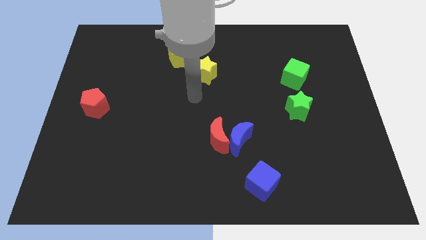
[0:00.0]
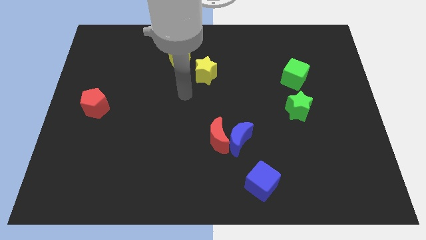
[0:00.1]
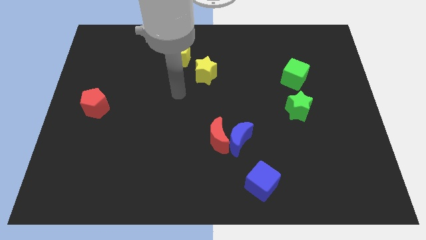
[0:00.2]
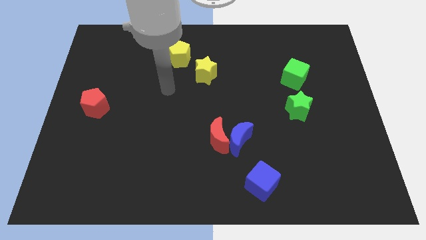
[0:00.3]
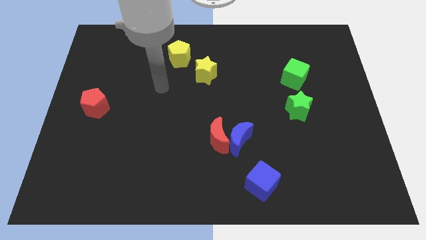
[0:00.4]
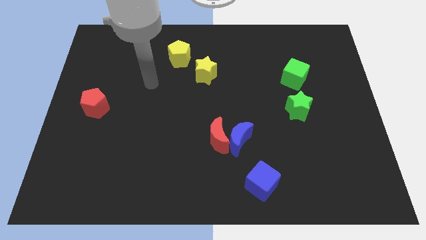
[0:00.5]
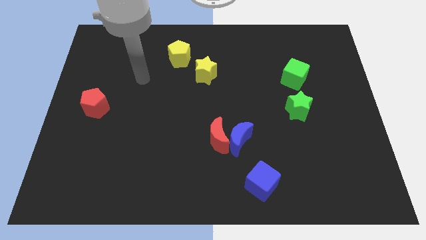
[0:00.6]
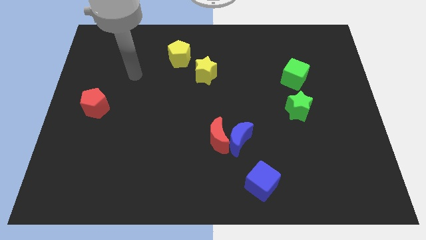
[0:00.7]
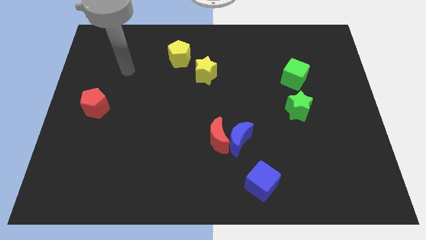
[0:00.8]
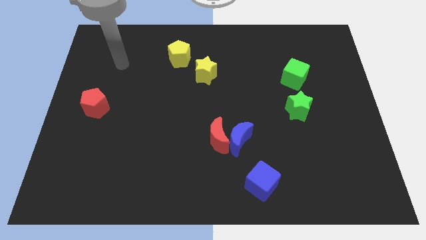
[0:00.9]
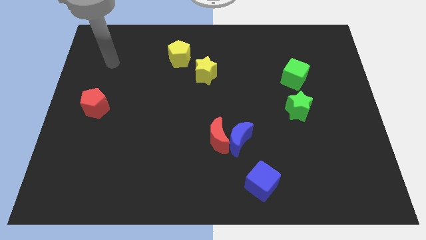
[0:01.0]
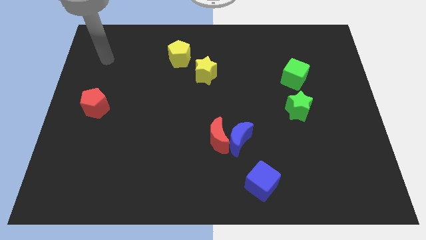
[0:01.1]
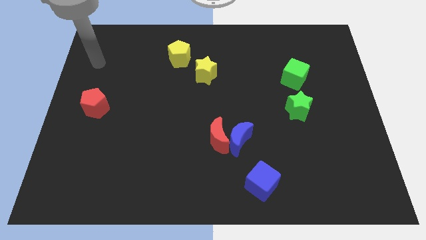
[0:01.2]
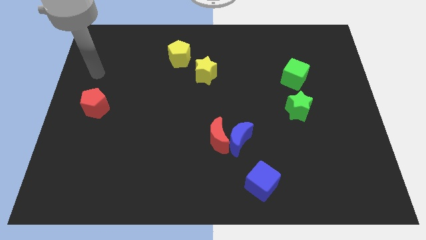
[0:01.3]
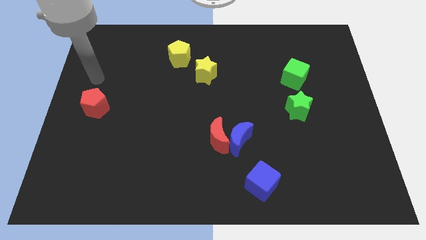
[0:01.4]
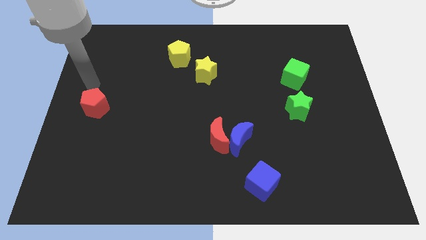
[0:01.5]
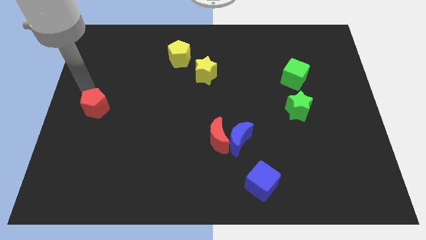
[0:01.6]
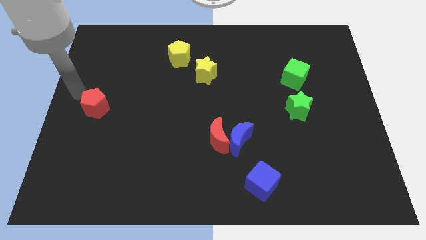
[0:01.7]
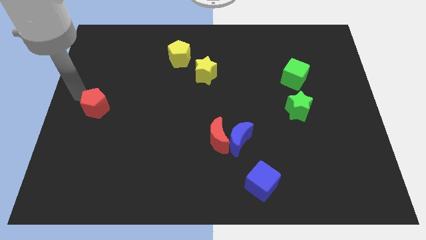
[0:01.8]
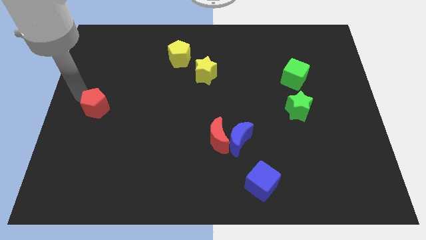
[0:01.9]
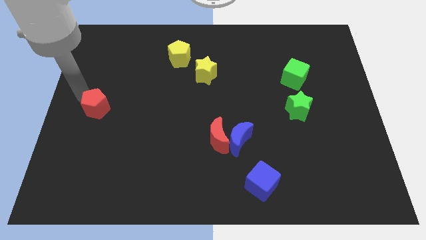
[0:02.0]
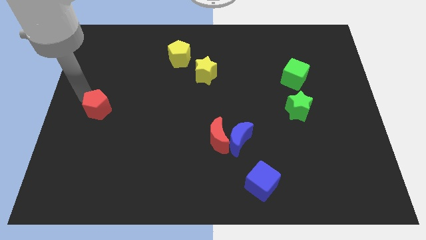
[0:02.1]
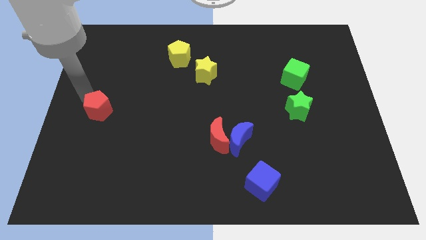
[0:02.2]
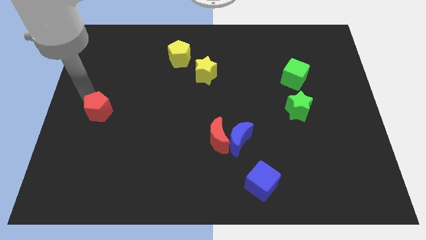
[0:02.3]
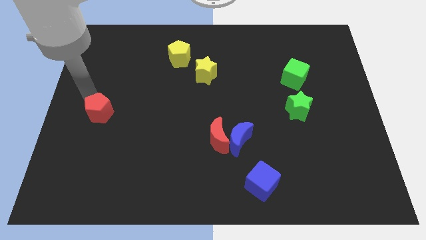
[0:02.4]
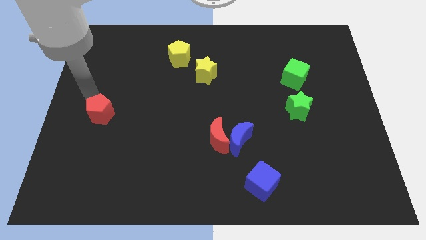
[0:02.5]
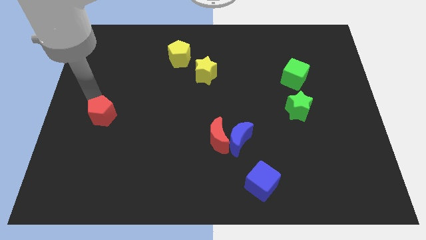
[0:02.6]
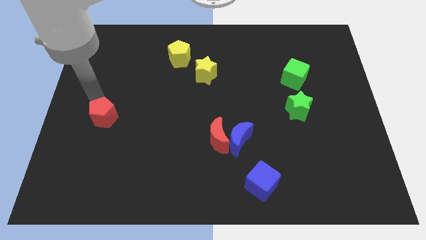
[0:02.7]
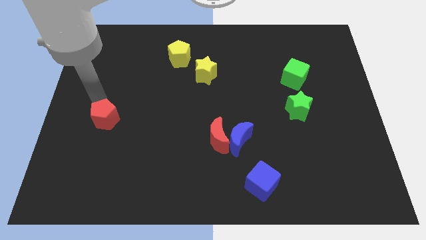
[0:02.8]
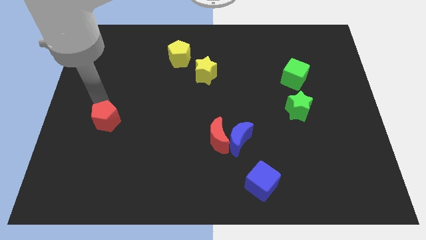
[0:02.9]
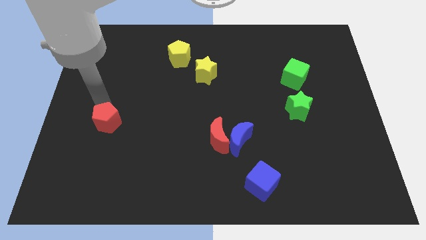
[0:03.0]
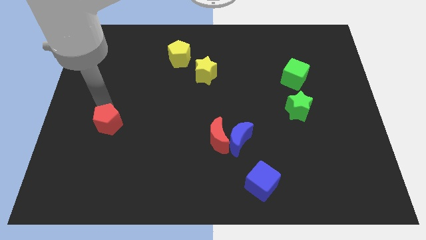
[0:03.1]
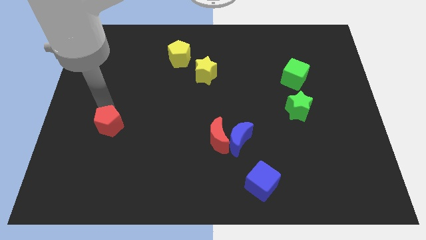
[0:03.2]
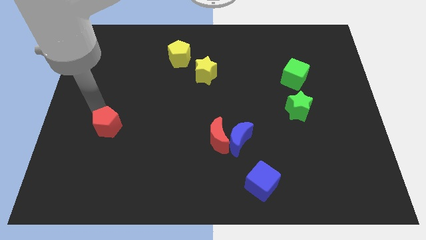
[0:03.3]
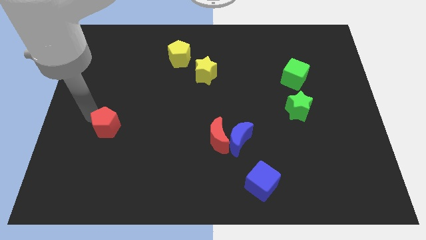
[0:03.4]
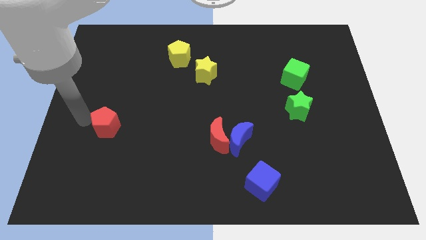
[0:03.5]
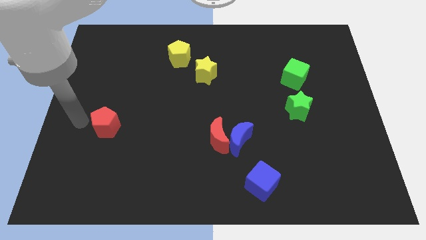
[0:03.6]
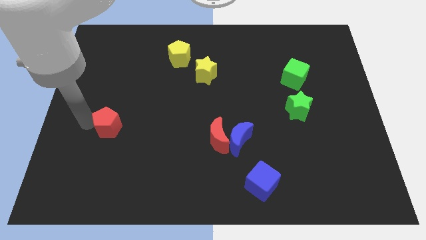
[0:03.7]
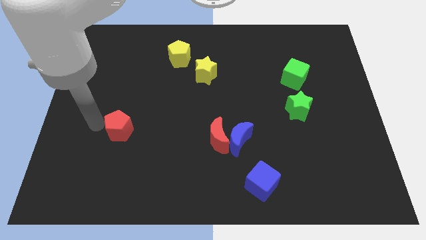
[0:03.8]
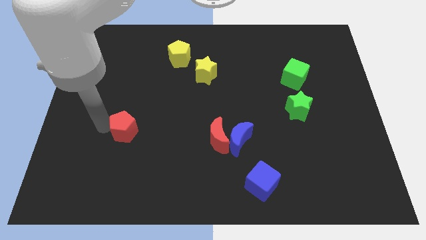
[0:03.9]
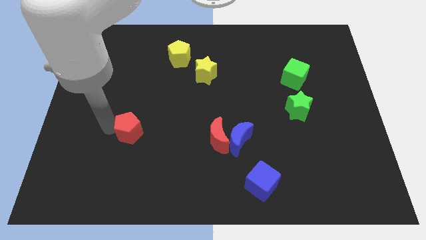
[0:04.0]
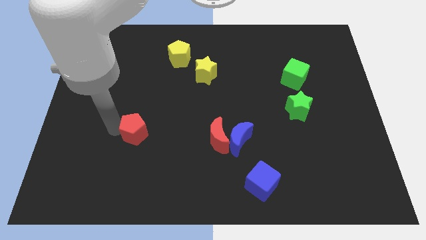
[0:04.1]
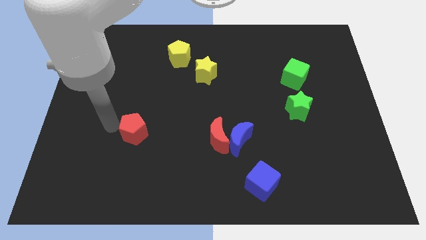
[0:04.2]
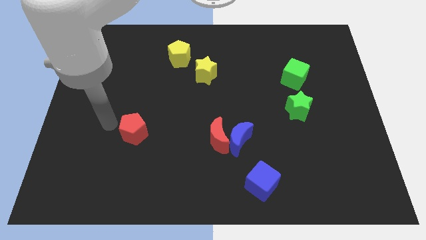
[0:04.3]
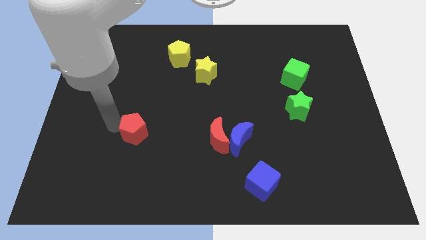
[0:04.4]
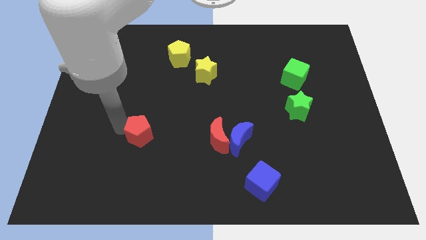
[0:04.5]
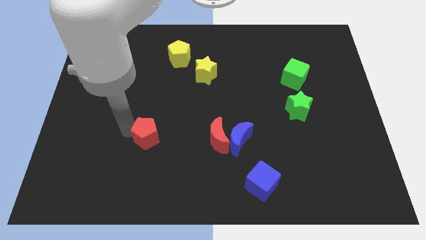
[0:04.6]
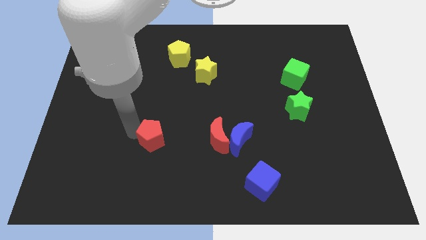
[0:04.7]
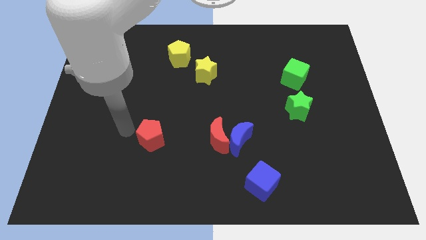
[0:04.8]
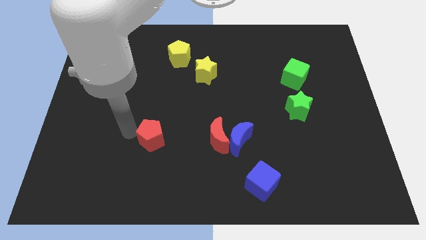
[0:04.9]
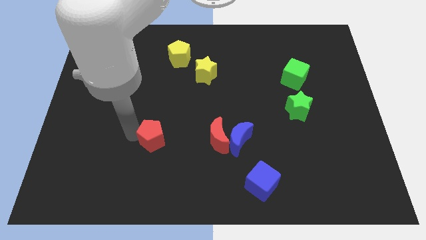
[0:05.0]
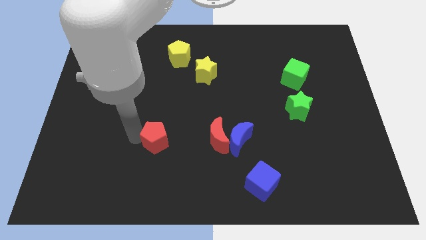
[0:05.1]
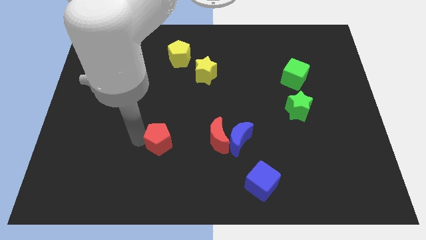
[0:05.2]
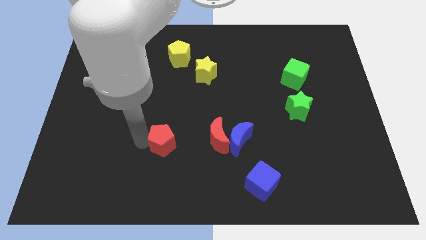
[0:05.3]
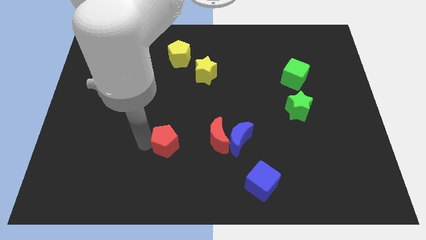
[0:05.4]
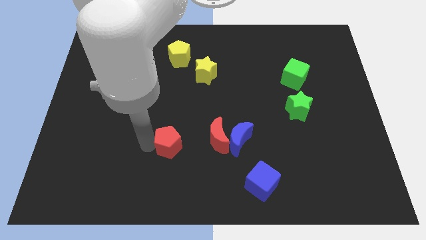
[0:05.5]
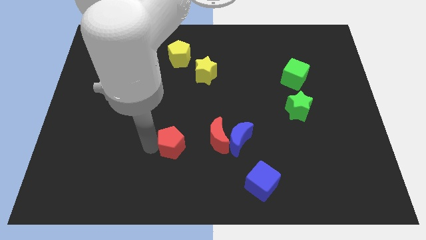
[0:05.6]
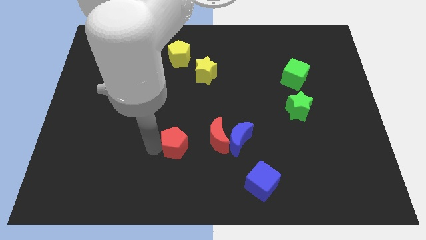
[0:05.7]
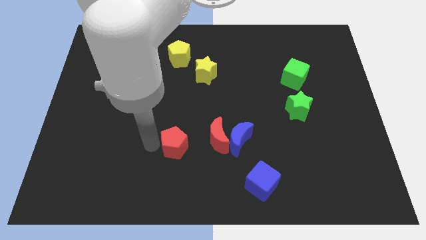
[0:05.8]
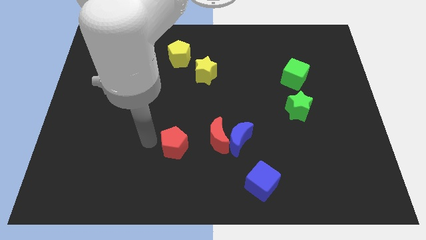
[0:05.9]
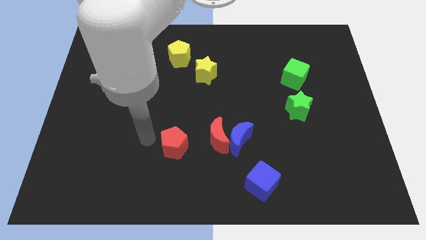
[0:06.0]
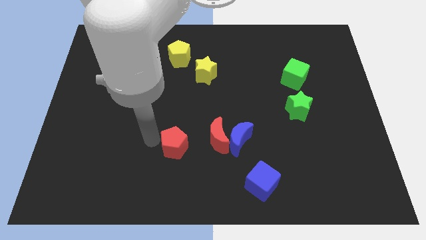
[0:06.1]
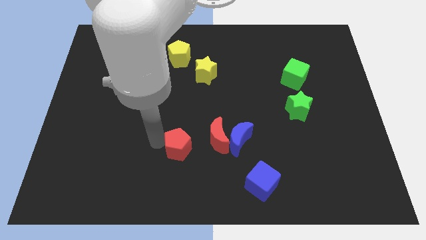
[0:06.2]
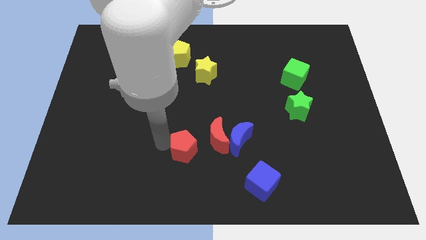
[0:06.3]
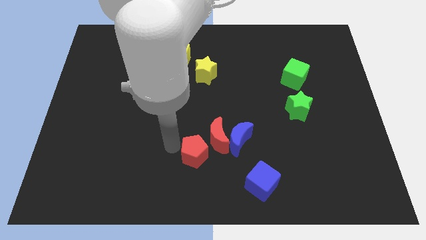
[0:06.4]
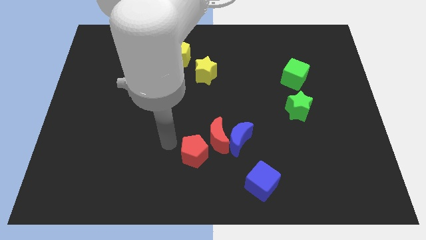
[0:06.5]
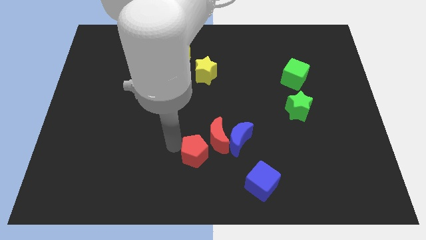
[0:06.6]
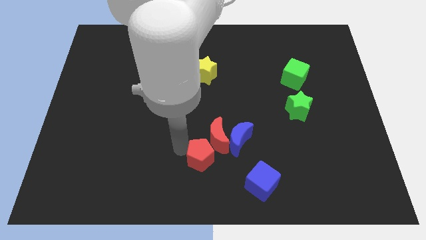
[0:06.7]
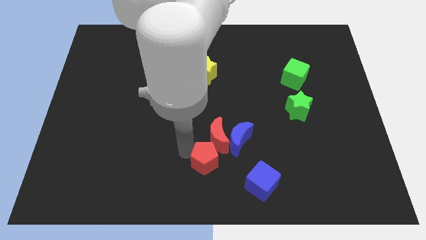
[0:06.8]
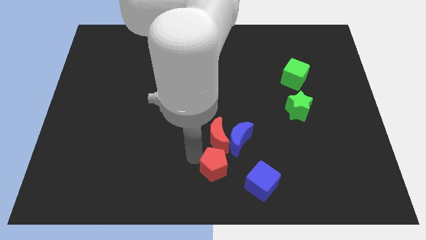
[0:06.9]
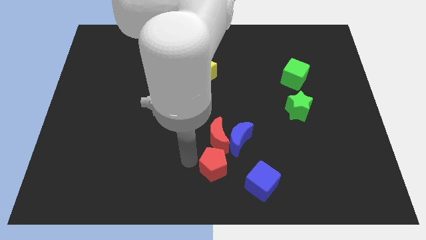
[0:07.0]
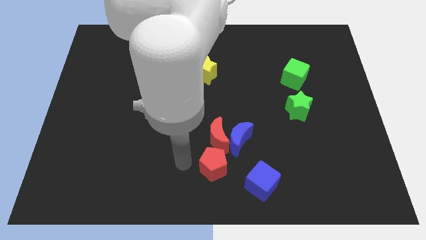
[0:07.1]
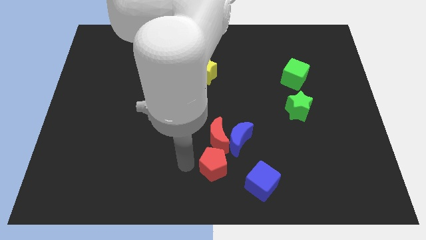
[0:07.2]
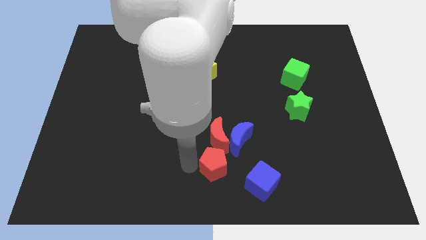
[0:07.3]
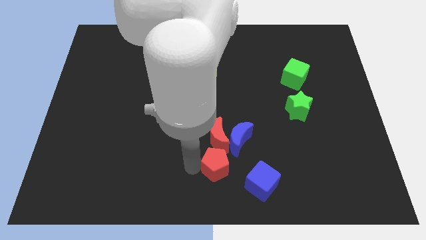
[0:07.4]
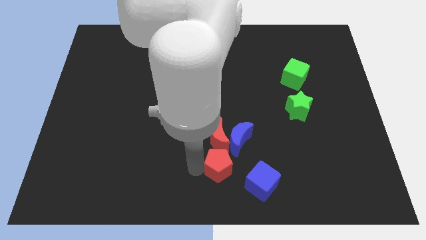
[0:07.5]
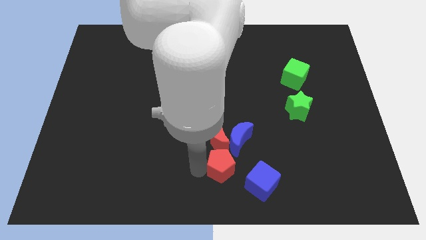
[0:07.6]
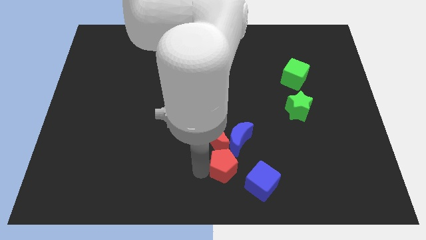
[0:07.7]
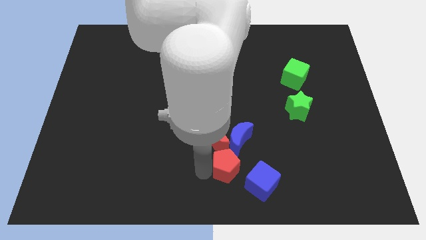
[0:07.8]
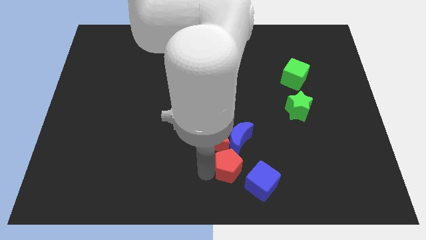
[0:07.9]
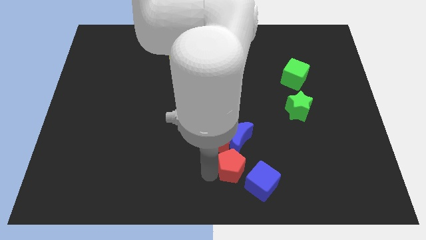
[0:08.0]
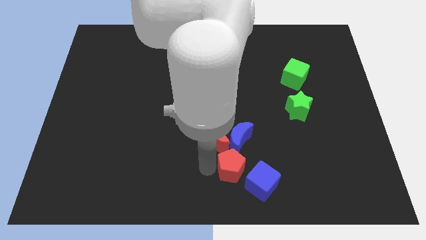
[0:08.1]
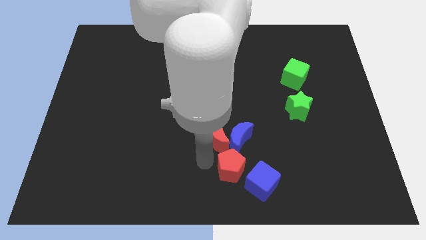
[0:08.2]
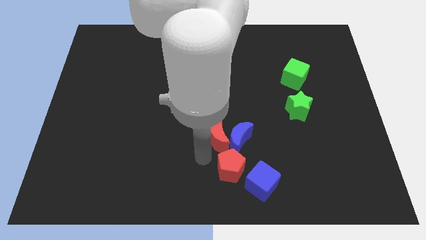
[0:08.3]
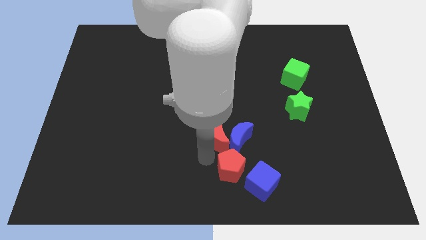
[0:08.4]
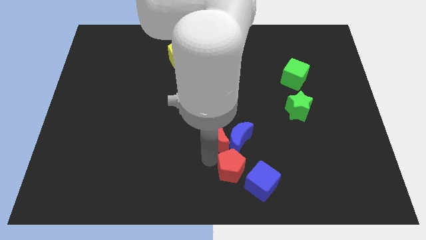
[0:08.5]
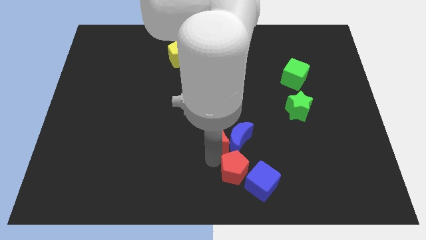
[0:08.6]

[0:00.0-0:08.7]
push the red pentagon next to the blue cube
